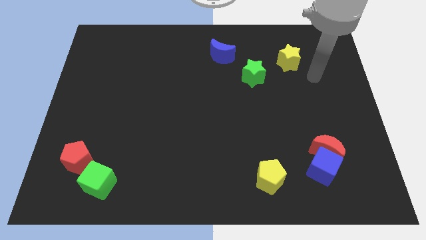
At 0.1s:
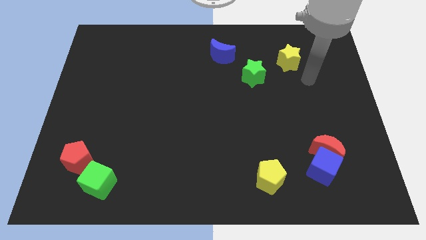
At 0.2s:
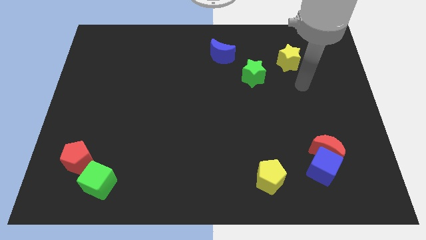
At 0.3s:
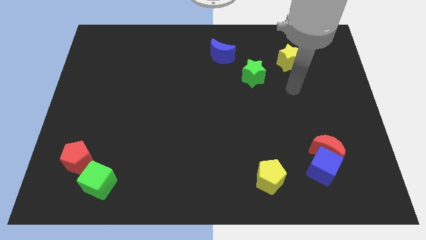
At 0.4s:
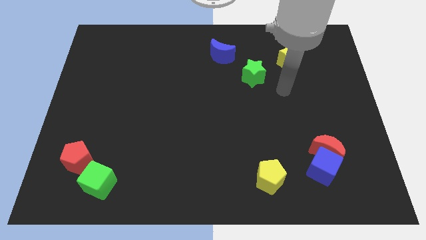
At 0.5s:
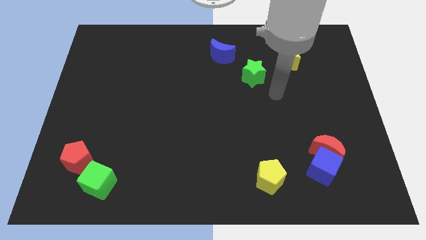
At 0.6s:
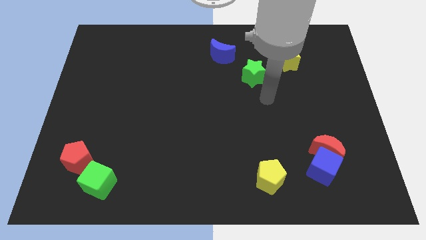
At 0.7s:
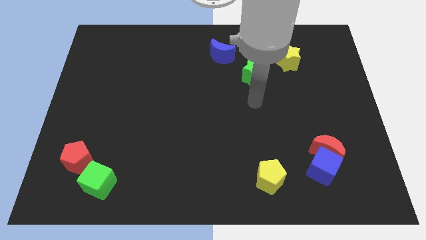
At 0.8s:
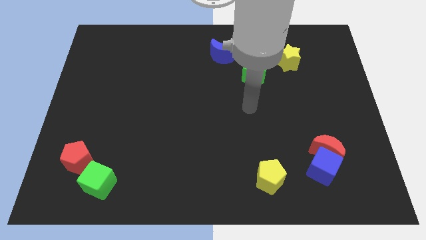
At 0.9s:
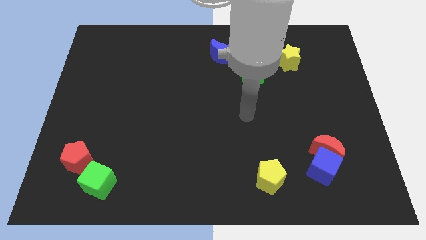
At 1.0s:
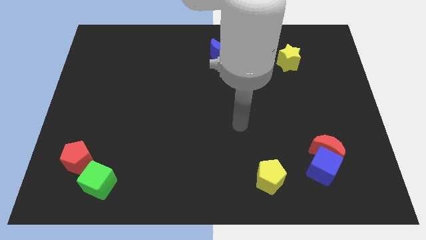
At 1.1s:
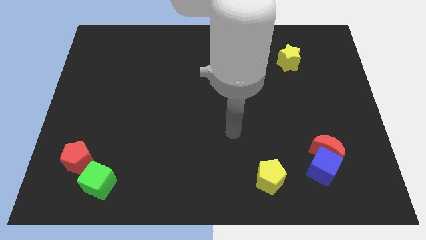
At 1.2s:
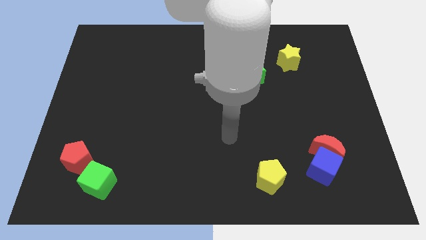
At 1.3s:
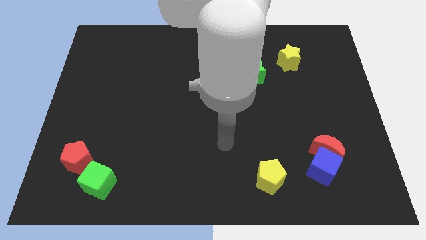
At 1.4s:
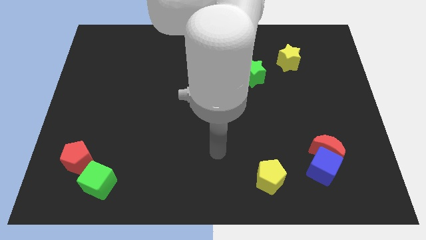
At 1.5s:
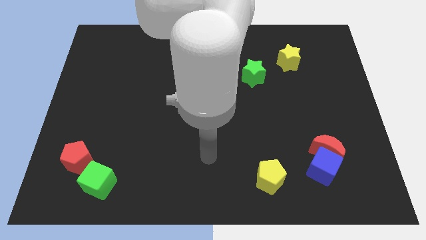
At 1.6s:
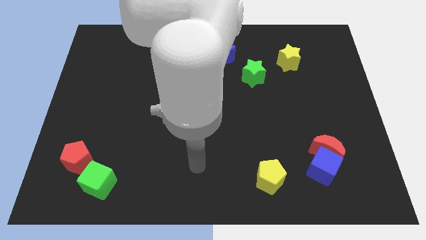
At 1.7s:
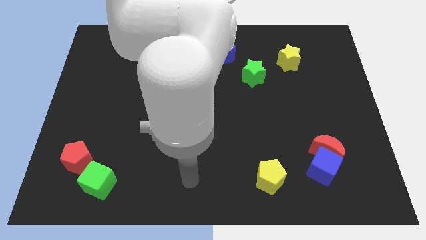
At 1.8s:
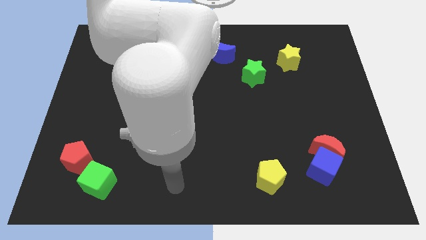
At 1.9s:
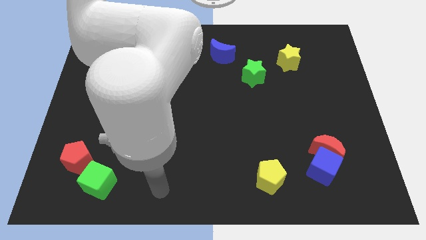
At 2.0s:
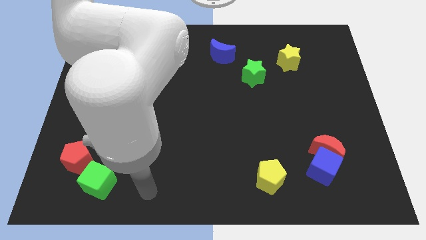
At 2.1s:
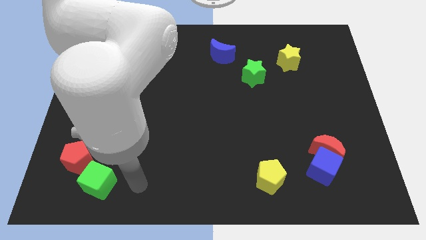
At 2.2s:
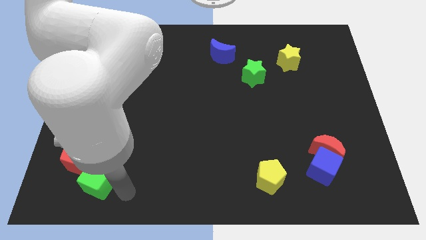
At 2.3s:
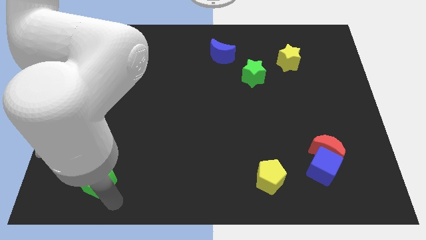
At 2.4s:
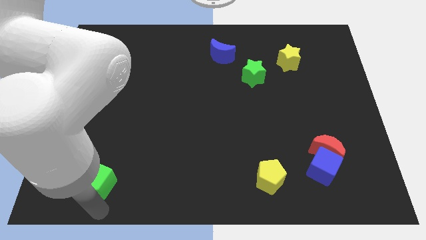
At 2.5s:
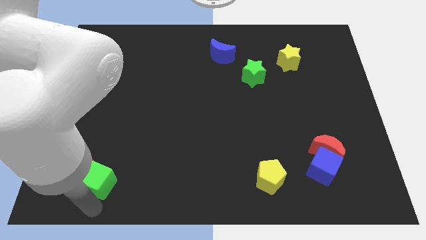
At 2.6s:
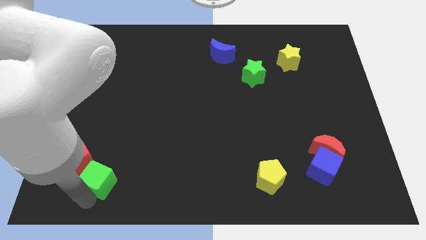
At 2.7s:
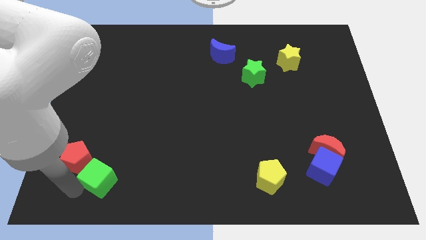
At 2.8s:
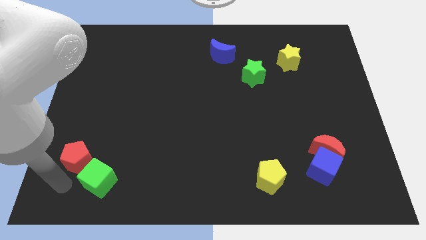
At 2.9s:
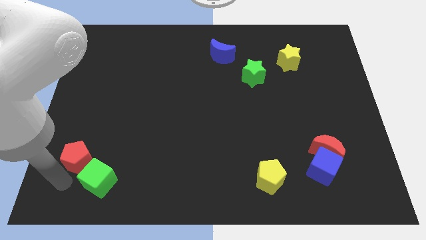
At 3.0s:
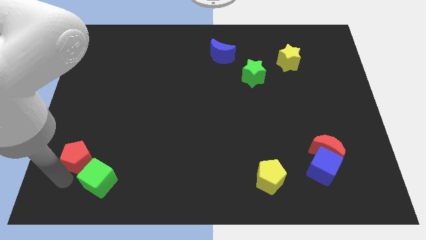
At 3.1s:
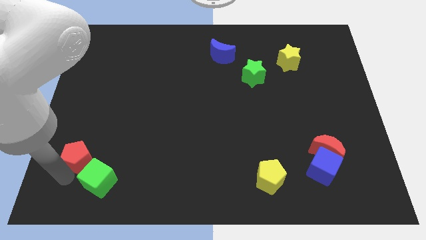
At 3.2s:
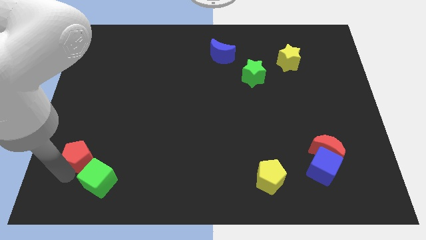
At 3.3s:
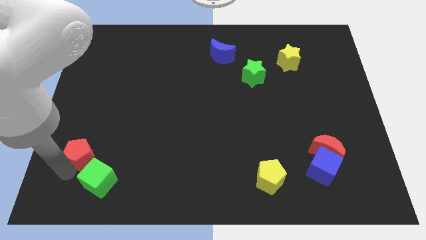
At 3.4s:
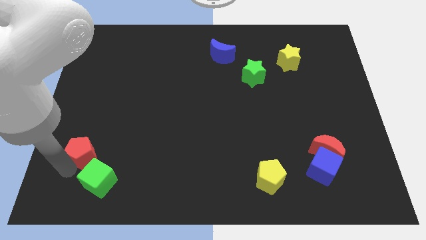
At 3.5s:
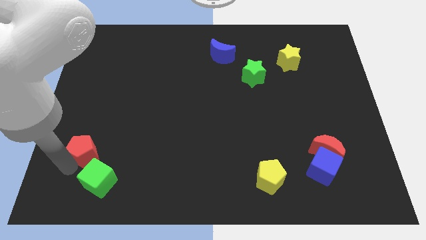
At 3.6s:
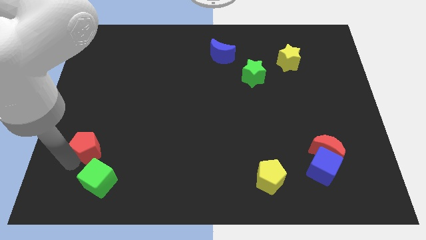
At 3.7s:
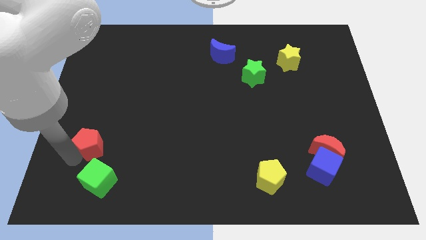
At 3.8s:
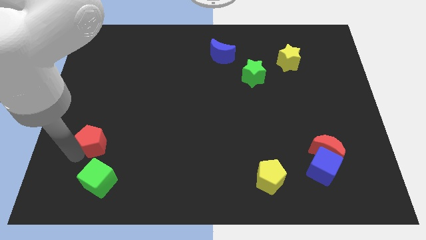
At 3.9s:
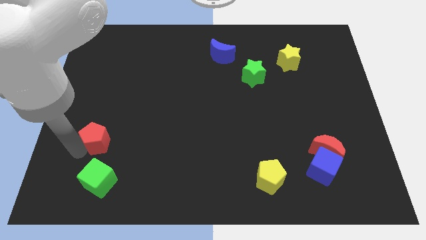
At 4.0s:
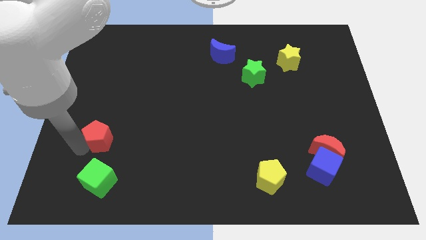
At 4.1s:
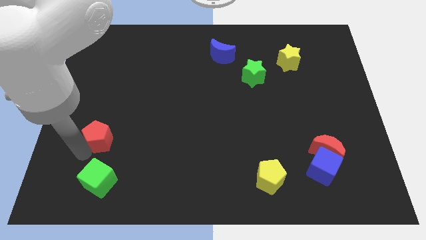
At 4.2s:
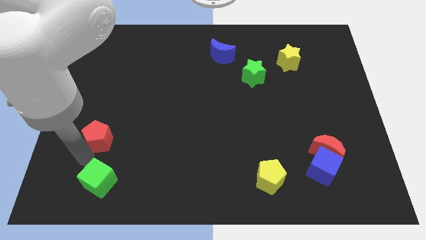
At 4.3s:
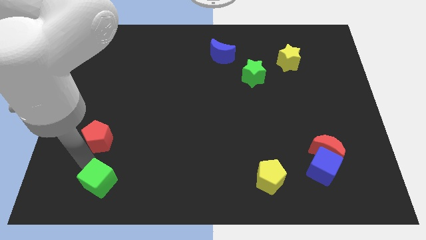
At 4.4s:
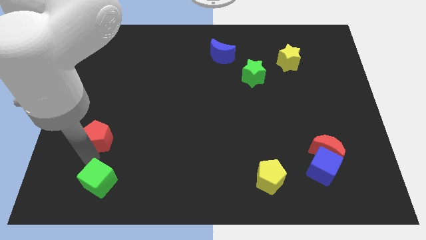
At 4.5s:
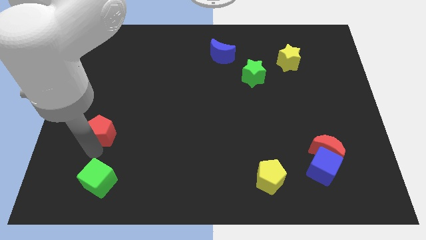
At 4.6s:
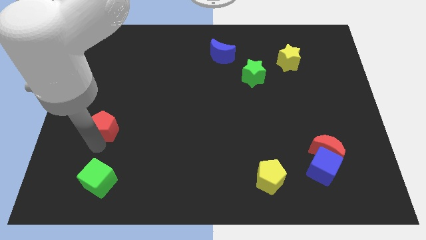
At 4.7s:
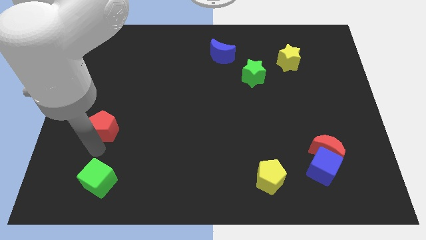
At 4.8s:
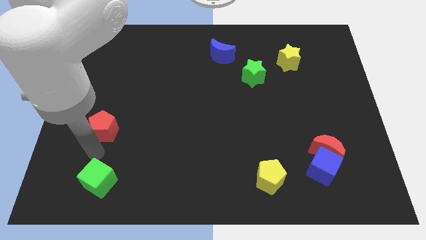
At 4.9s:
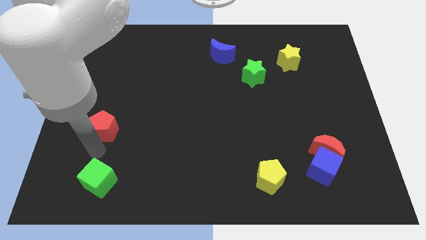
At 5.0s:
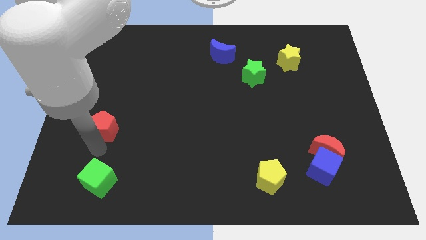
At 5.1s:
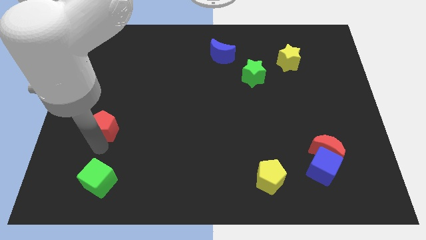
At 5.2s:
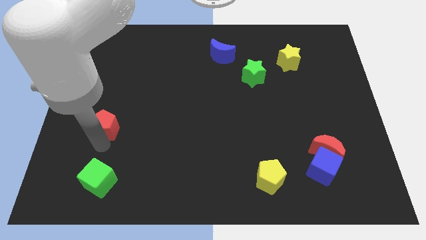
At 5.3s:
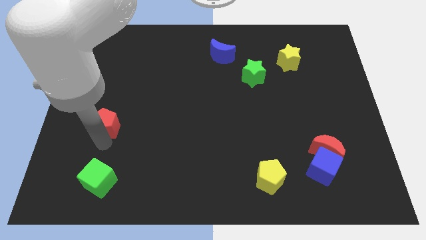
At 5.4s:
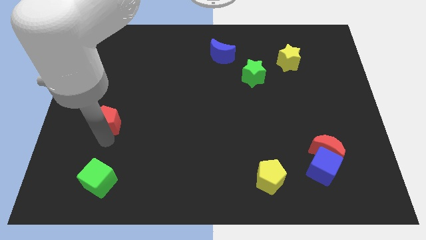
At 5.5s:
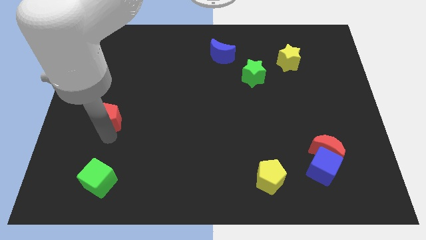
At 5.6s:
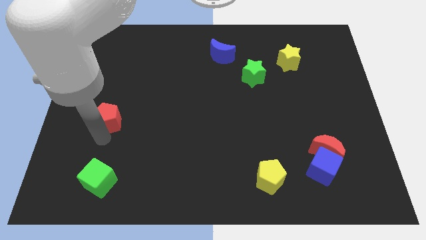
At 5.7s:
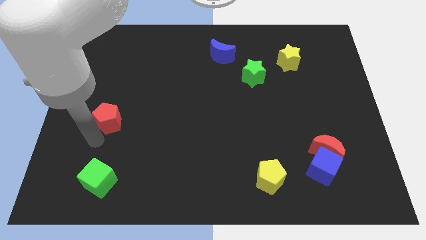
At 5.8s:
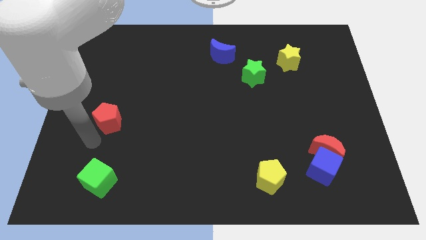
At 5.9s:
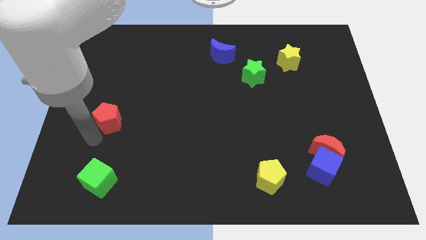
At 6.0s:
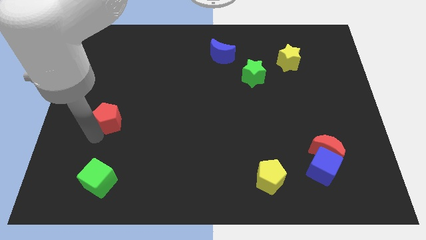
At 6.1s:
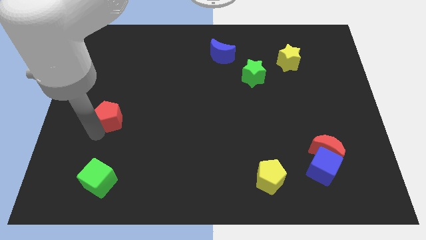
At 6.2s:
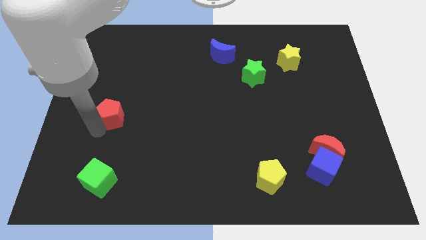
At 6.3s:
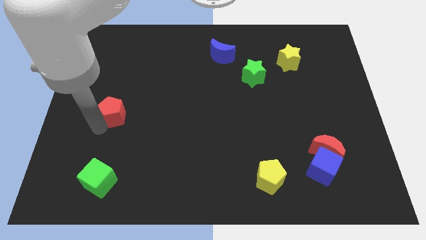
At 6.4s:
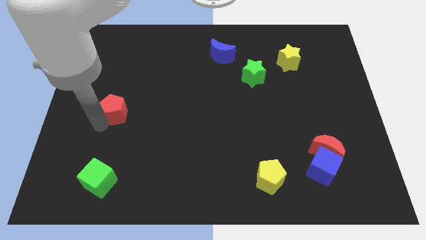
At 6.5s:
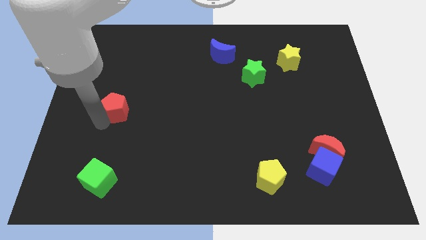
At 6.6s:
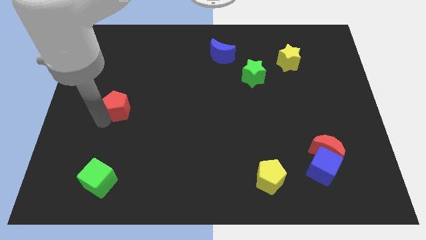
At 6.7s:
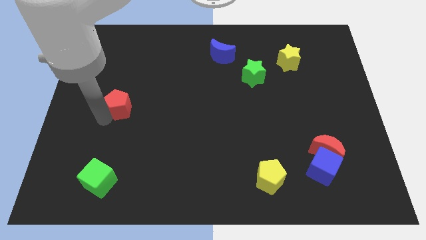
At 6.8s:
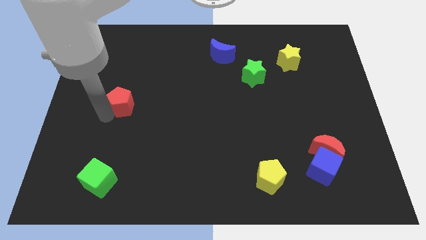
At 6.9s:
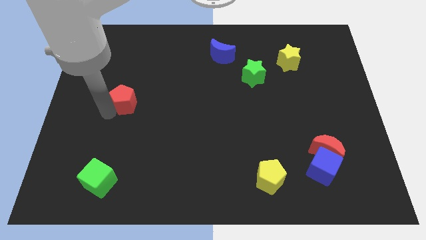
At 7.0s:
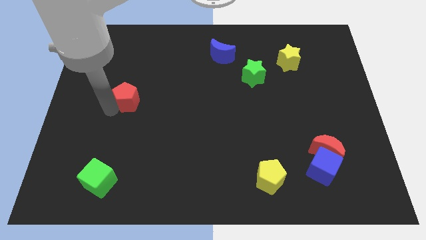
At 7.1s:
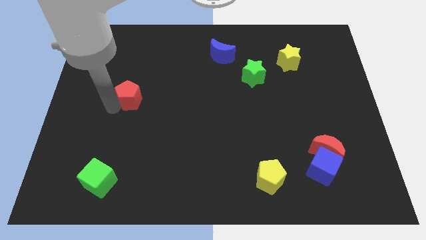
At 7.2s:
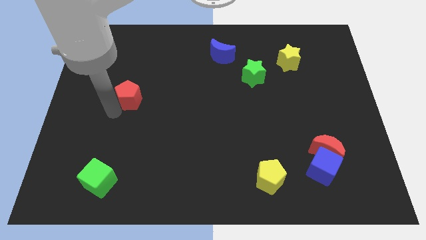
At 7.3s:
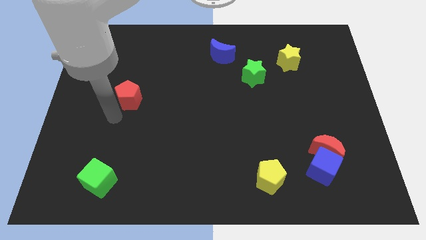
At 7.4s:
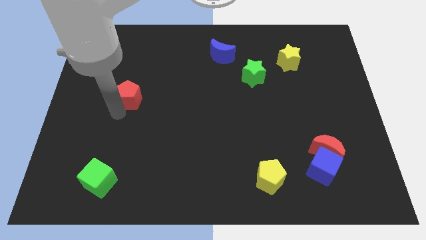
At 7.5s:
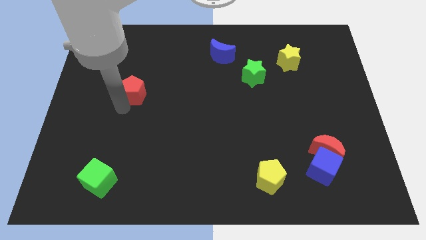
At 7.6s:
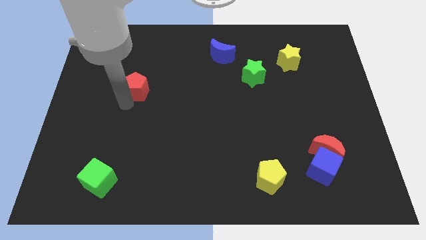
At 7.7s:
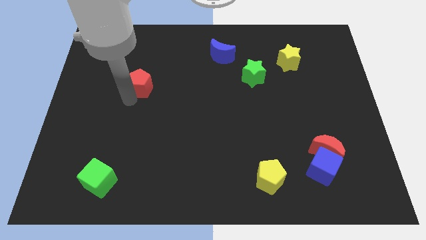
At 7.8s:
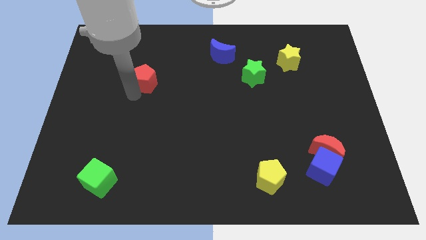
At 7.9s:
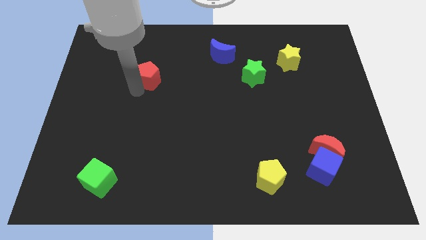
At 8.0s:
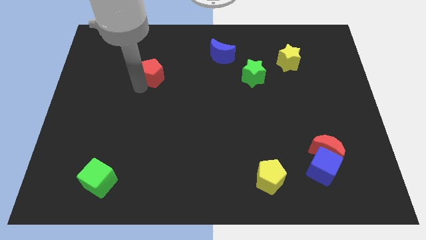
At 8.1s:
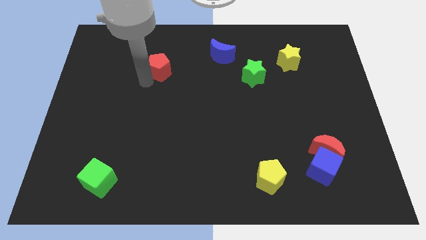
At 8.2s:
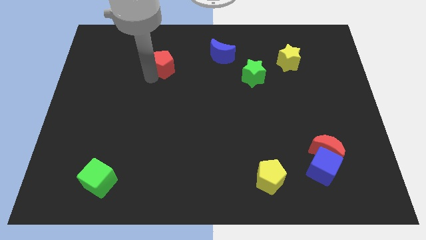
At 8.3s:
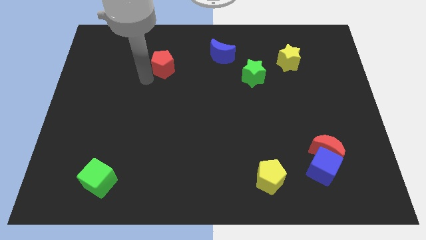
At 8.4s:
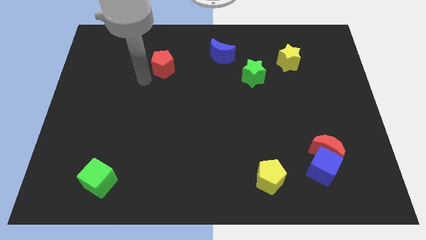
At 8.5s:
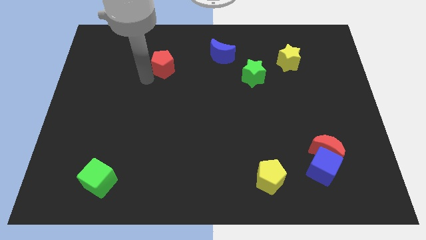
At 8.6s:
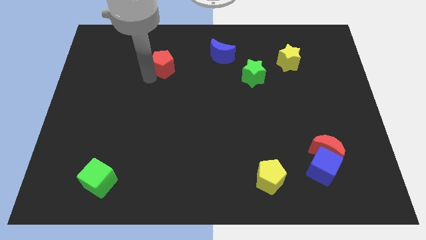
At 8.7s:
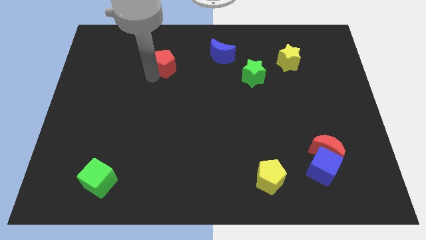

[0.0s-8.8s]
put the red pentagon to the left of the blue moon
